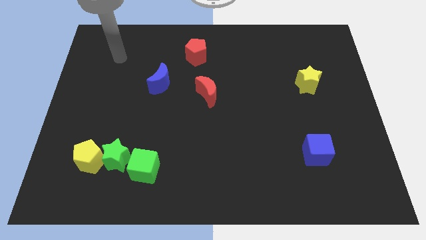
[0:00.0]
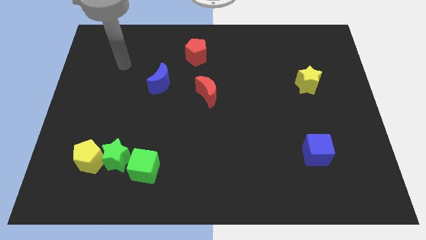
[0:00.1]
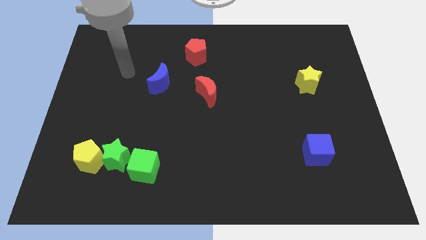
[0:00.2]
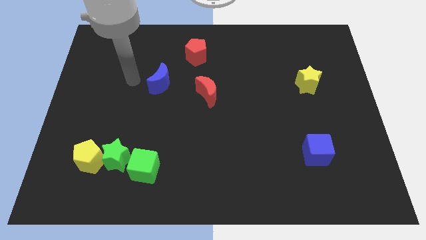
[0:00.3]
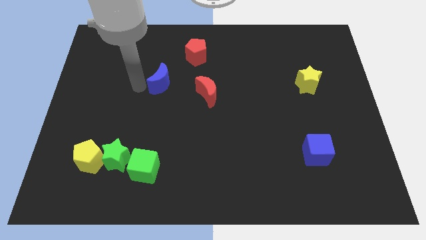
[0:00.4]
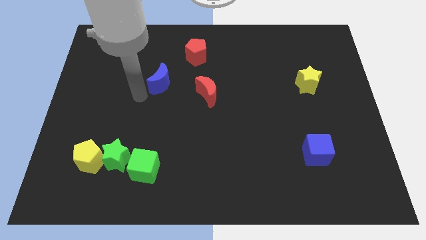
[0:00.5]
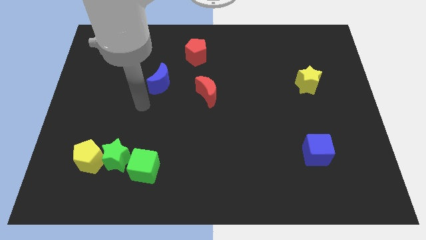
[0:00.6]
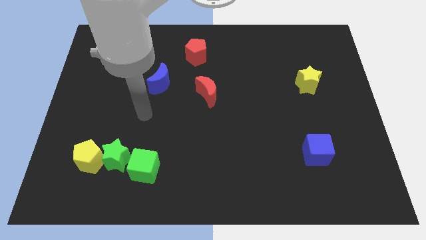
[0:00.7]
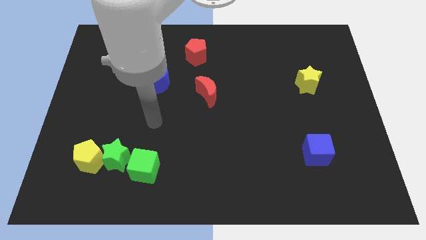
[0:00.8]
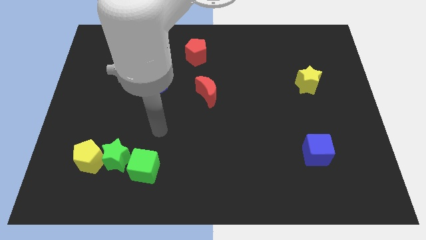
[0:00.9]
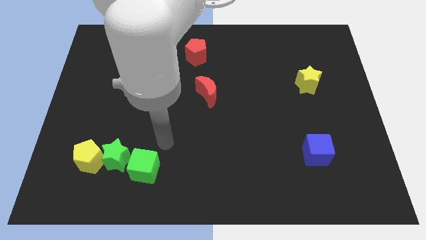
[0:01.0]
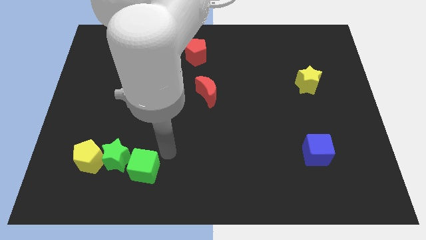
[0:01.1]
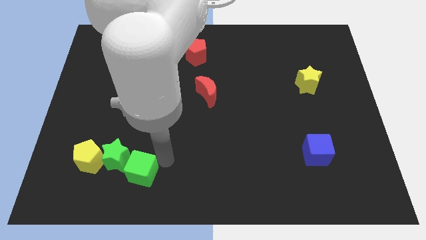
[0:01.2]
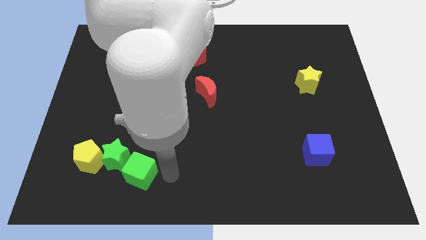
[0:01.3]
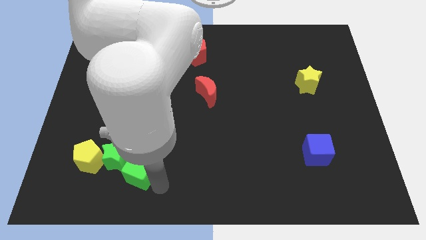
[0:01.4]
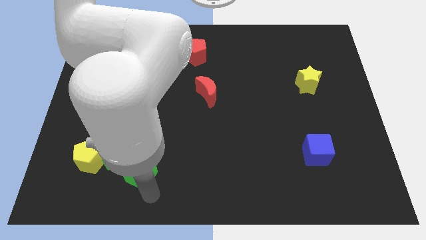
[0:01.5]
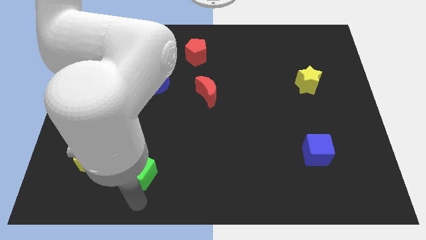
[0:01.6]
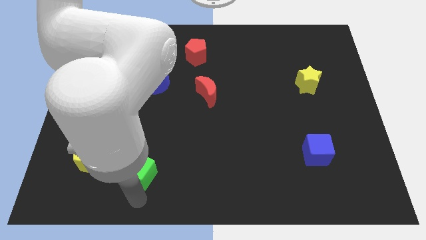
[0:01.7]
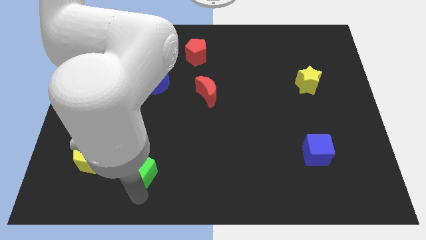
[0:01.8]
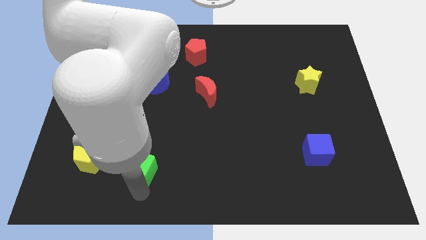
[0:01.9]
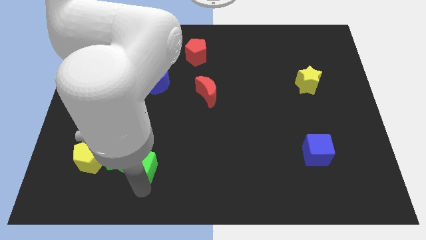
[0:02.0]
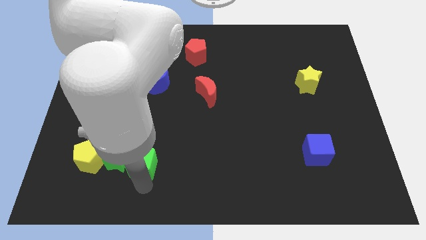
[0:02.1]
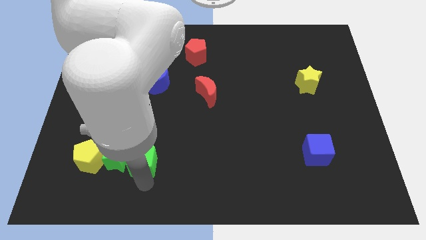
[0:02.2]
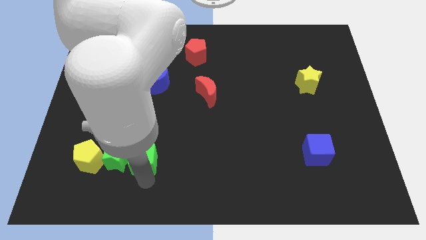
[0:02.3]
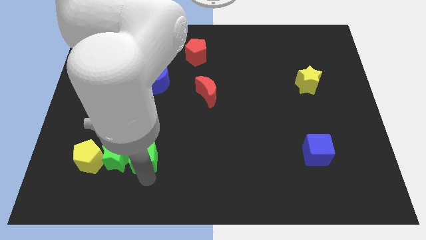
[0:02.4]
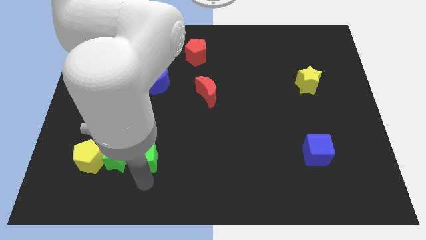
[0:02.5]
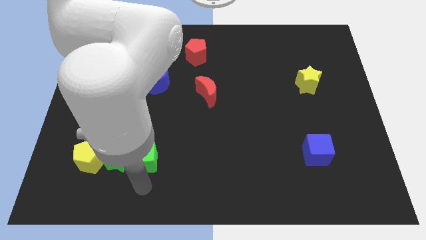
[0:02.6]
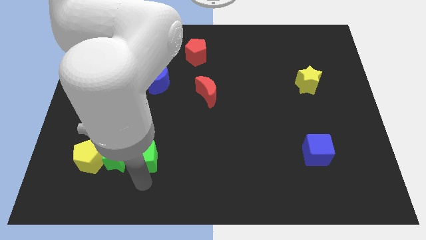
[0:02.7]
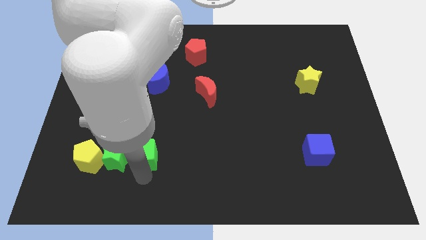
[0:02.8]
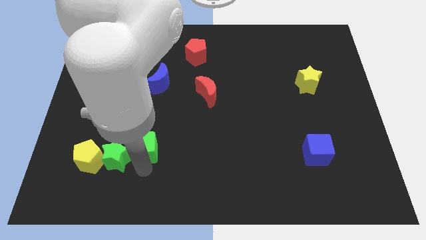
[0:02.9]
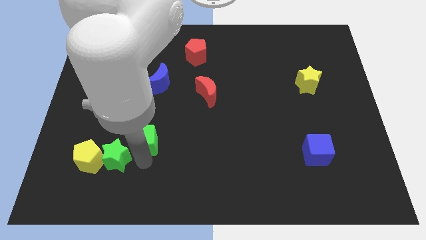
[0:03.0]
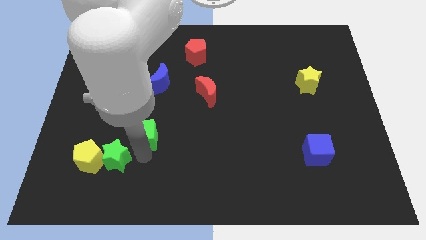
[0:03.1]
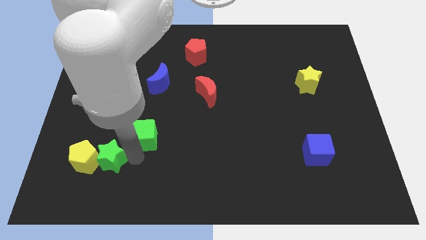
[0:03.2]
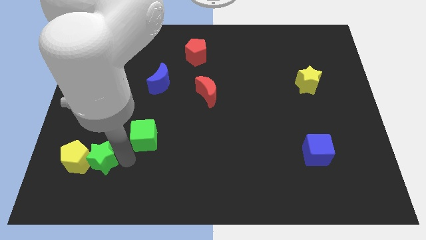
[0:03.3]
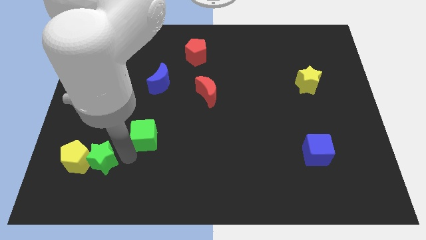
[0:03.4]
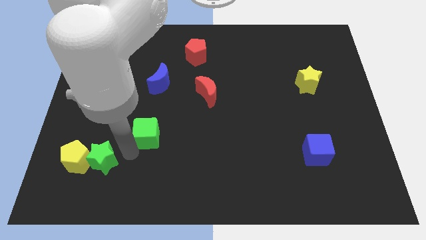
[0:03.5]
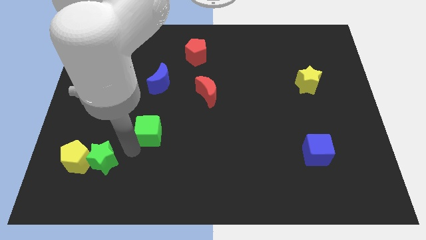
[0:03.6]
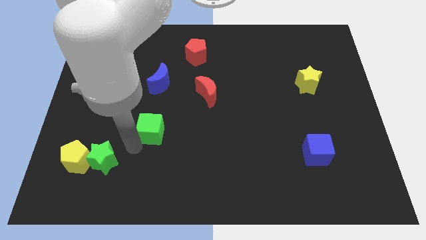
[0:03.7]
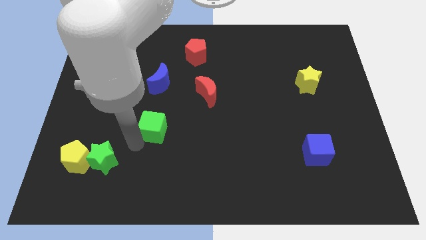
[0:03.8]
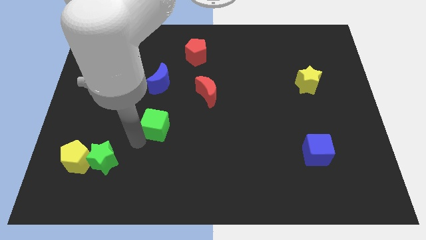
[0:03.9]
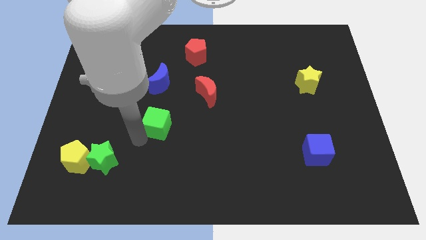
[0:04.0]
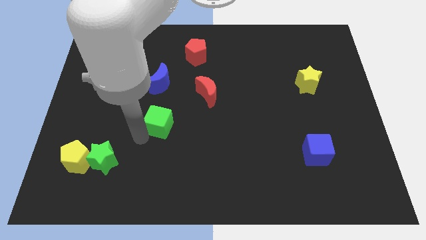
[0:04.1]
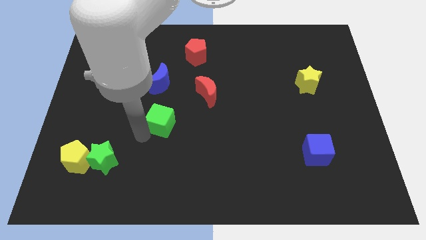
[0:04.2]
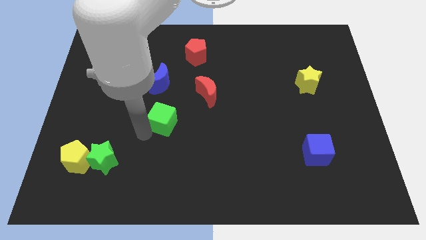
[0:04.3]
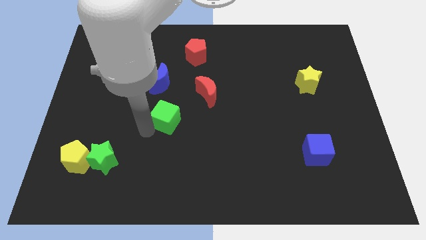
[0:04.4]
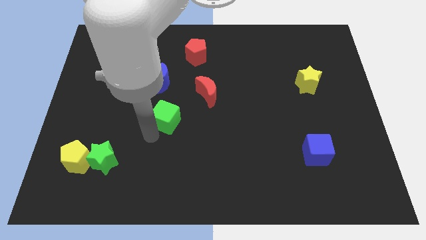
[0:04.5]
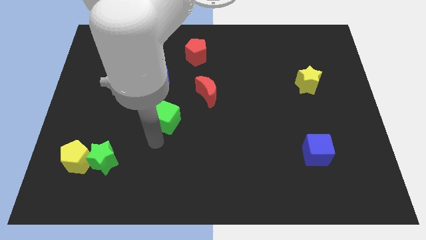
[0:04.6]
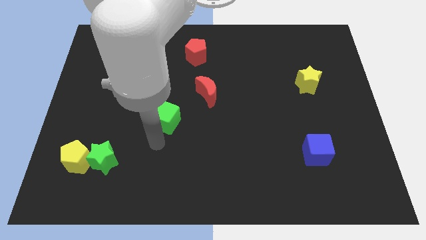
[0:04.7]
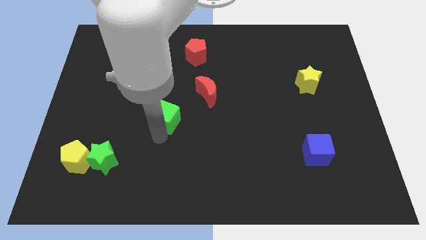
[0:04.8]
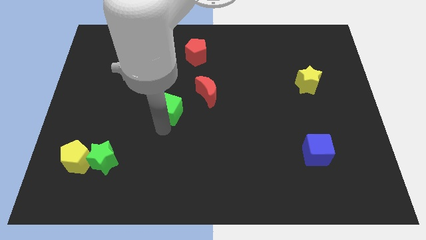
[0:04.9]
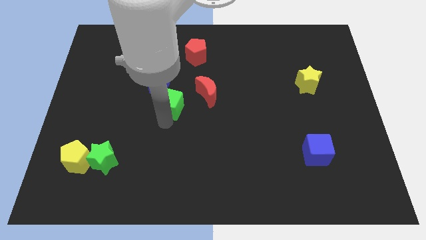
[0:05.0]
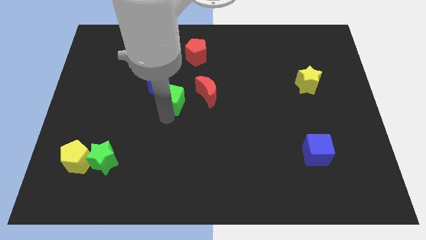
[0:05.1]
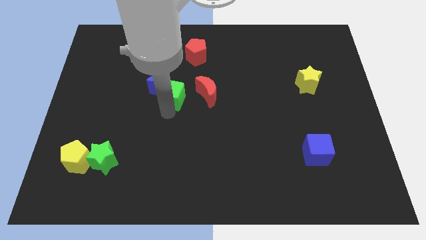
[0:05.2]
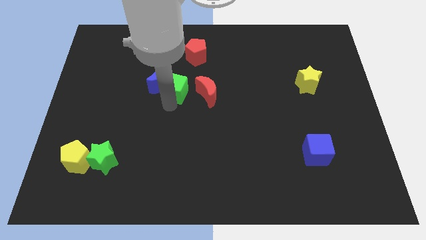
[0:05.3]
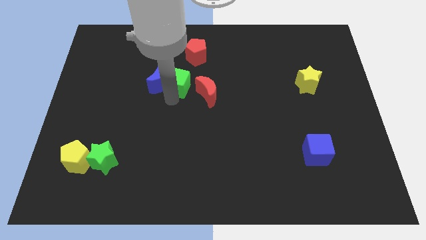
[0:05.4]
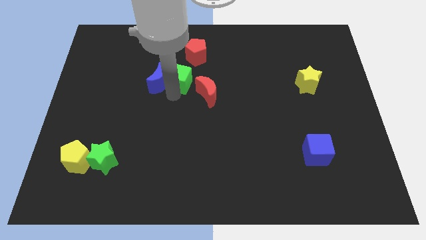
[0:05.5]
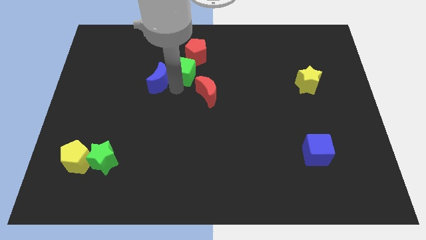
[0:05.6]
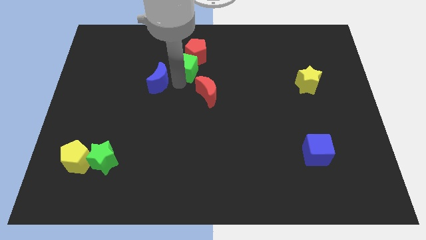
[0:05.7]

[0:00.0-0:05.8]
put the green cube towards the red pentagon
